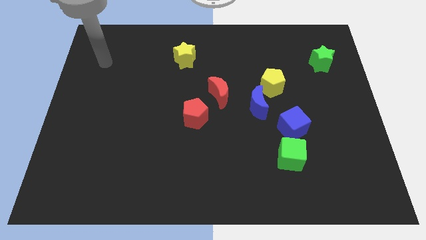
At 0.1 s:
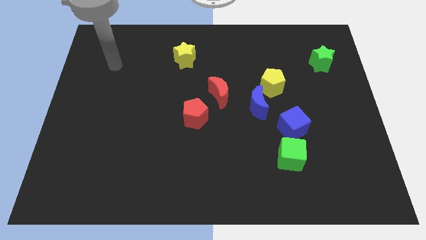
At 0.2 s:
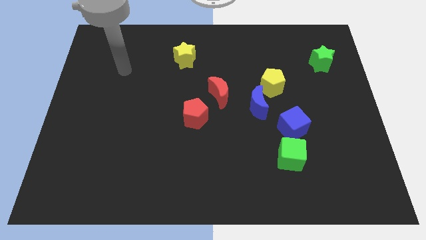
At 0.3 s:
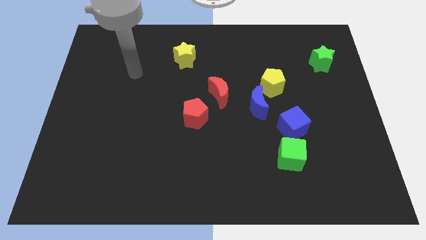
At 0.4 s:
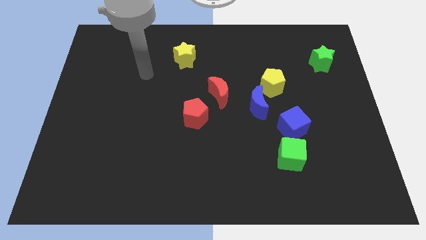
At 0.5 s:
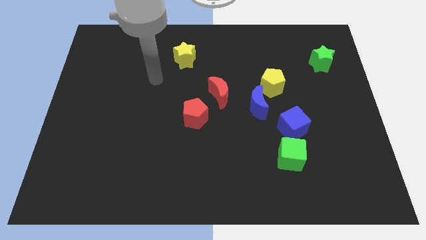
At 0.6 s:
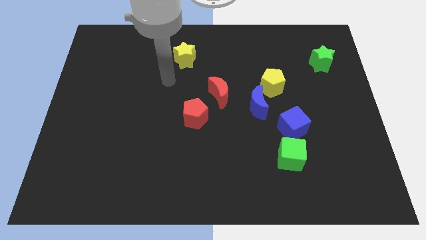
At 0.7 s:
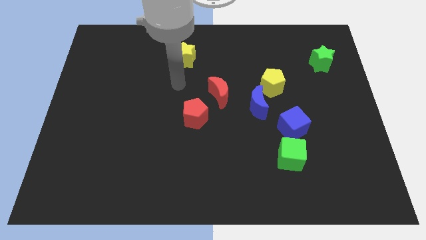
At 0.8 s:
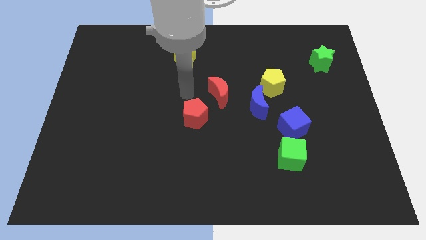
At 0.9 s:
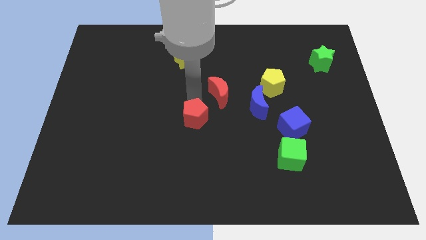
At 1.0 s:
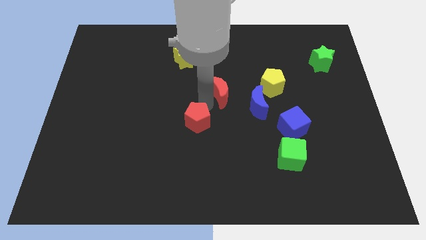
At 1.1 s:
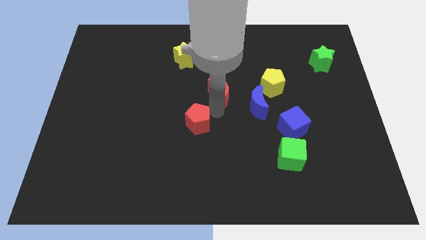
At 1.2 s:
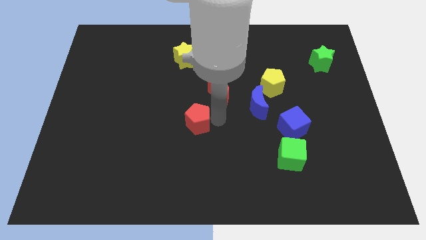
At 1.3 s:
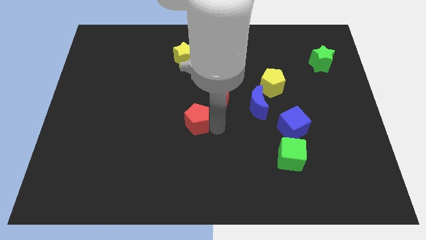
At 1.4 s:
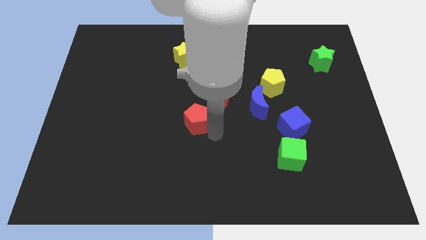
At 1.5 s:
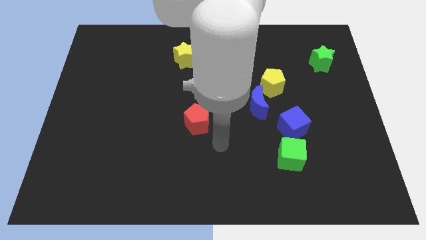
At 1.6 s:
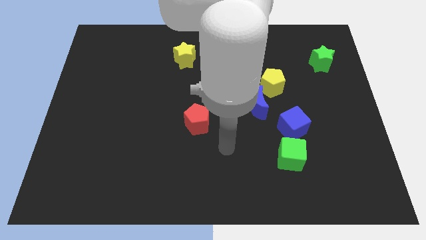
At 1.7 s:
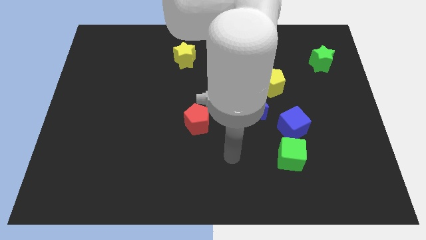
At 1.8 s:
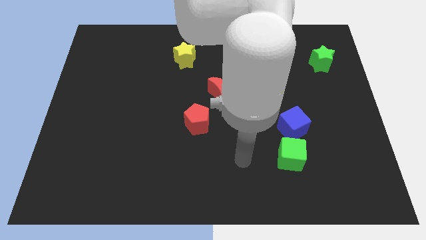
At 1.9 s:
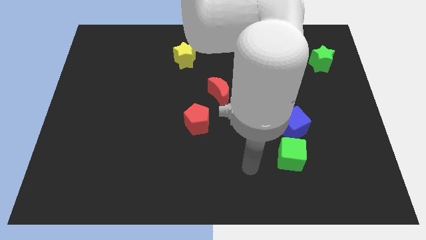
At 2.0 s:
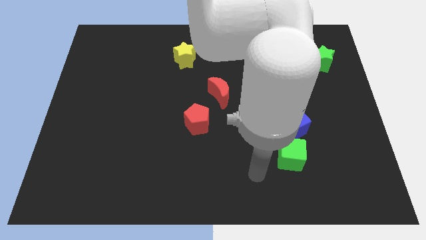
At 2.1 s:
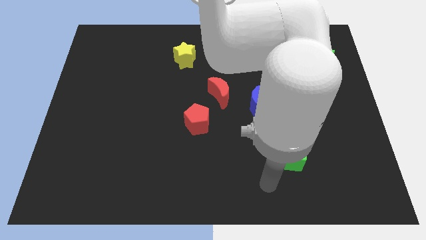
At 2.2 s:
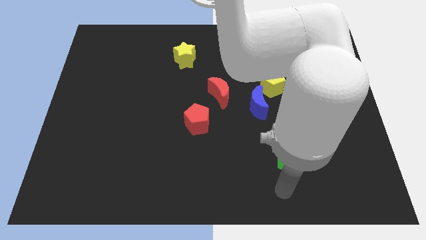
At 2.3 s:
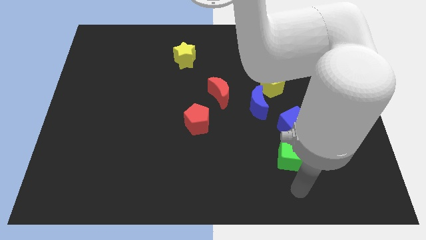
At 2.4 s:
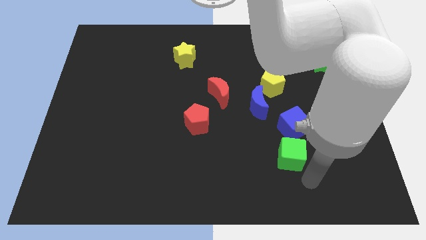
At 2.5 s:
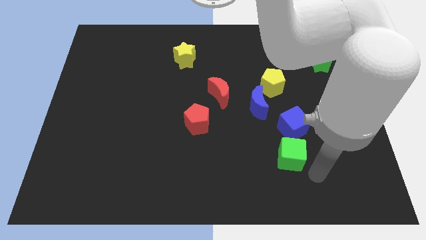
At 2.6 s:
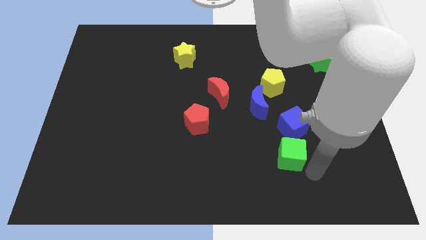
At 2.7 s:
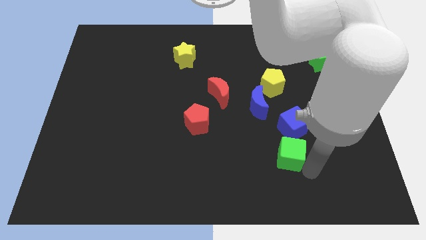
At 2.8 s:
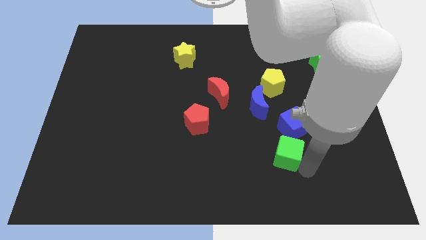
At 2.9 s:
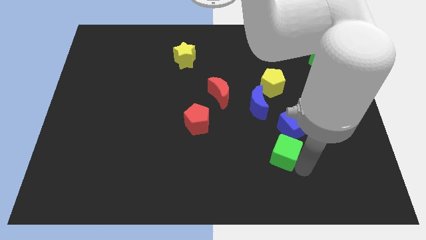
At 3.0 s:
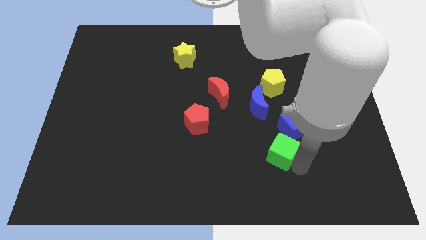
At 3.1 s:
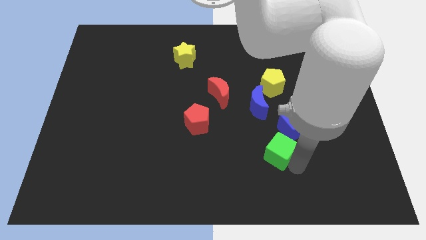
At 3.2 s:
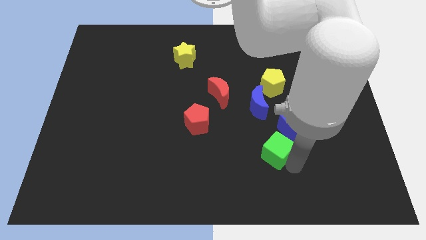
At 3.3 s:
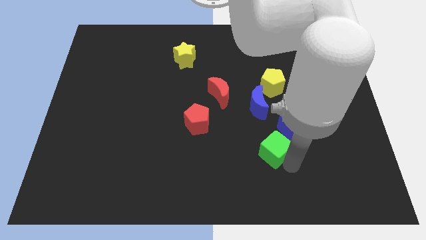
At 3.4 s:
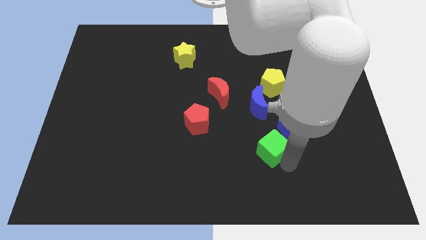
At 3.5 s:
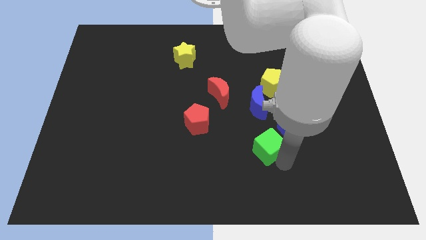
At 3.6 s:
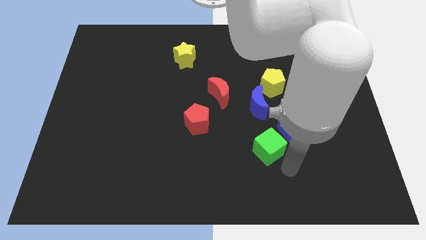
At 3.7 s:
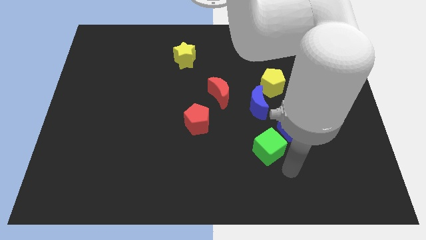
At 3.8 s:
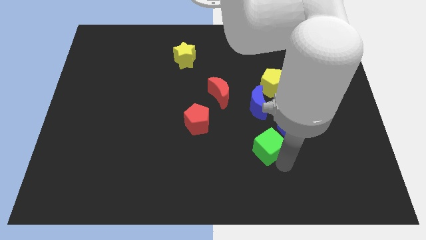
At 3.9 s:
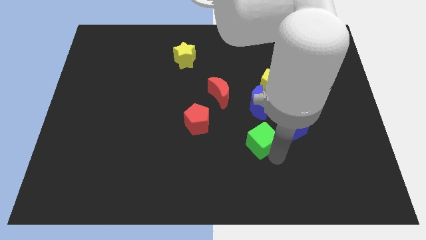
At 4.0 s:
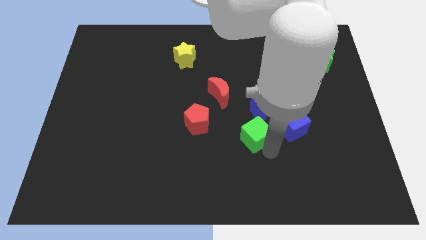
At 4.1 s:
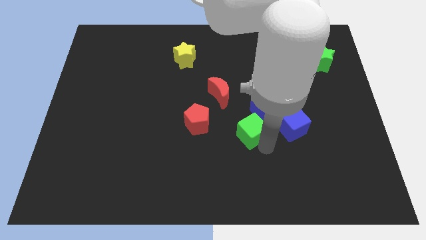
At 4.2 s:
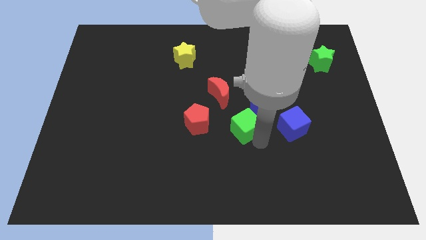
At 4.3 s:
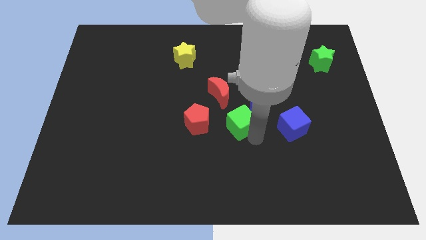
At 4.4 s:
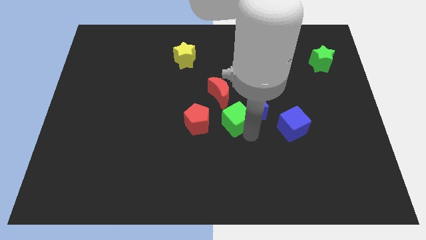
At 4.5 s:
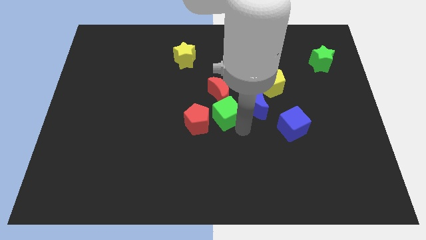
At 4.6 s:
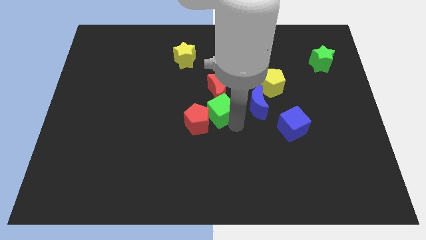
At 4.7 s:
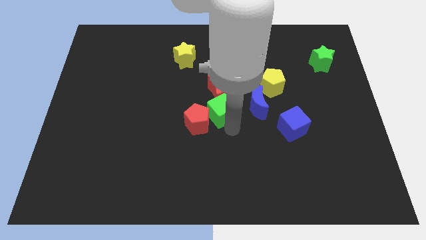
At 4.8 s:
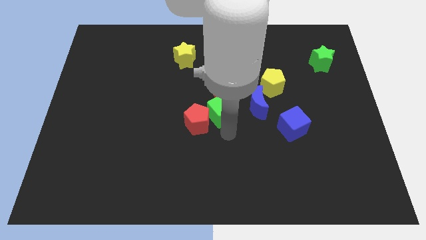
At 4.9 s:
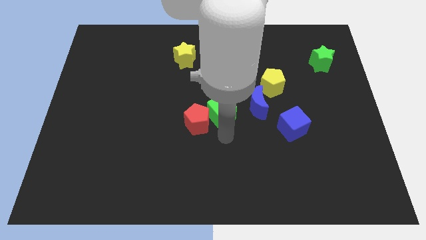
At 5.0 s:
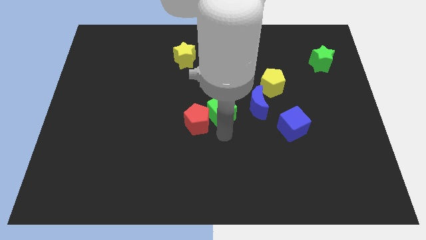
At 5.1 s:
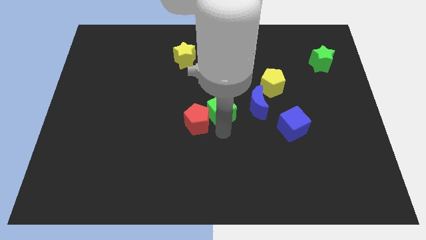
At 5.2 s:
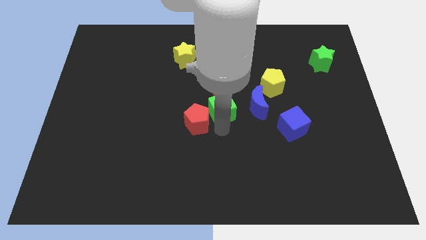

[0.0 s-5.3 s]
push the green cube towards the red moon

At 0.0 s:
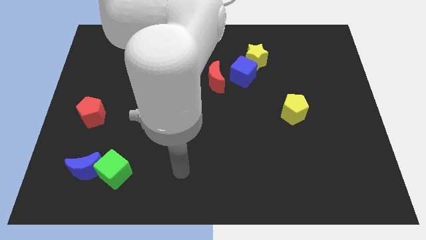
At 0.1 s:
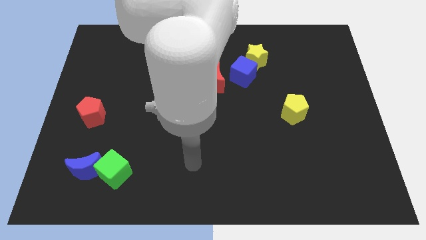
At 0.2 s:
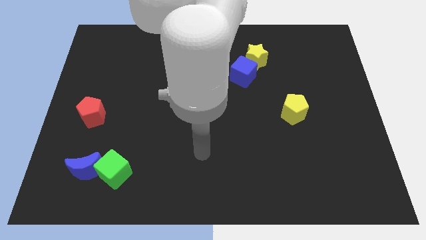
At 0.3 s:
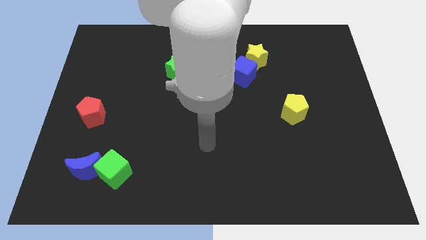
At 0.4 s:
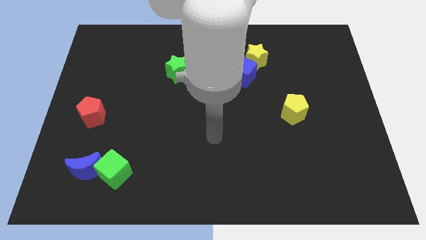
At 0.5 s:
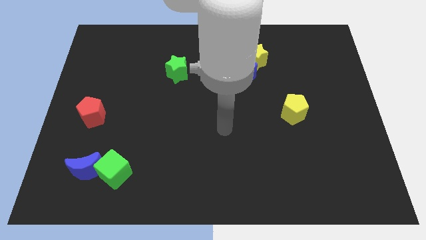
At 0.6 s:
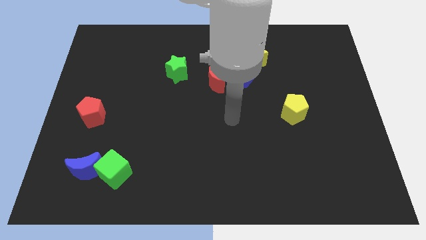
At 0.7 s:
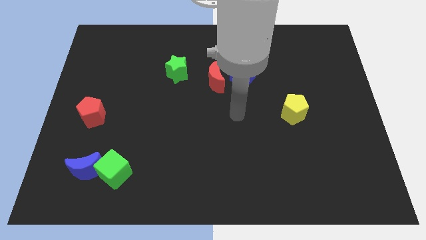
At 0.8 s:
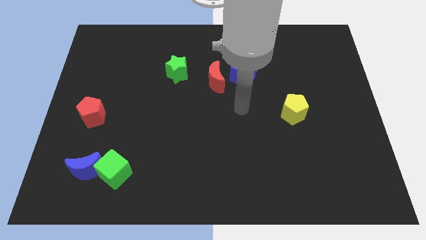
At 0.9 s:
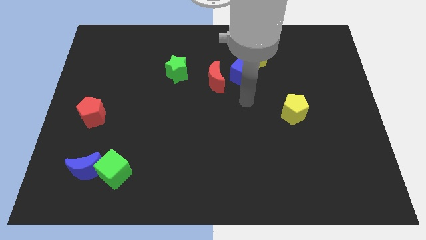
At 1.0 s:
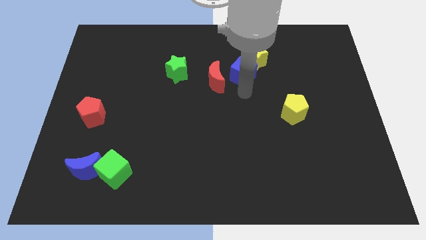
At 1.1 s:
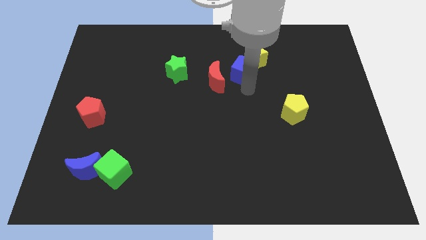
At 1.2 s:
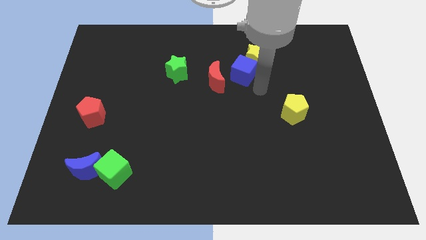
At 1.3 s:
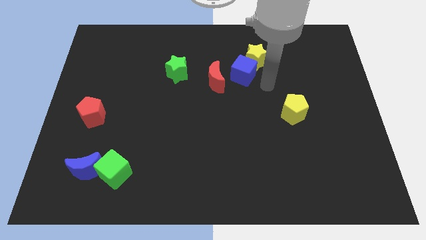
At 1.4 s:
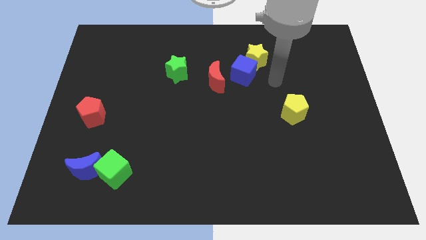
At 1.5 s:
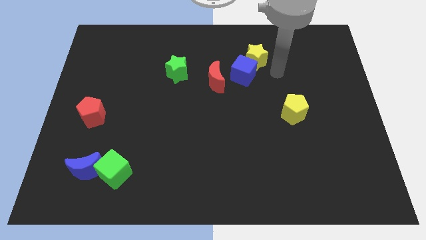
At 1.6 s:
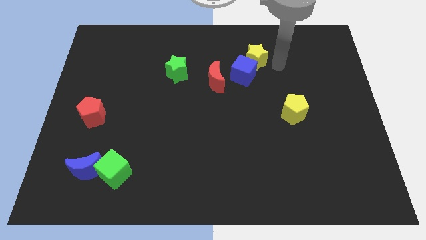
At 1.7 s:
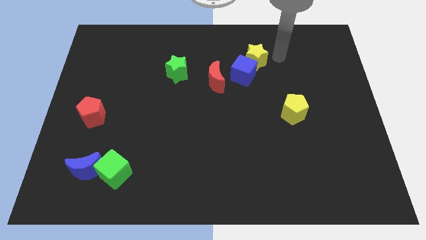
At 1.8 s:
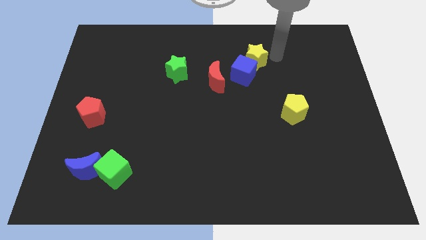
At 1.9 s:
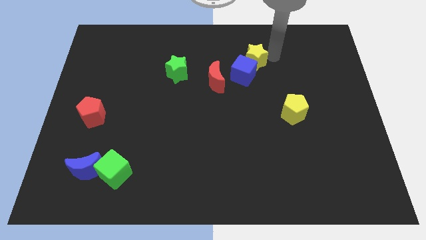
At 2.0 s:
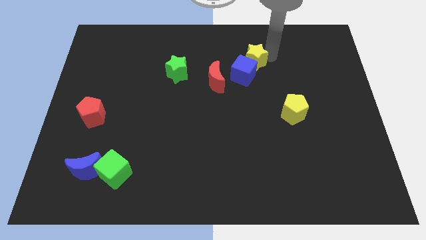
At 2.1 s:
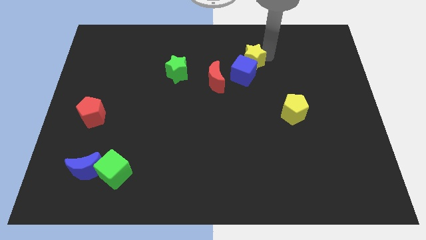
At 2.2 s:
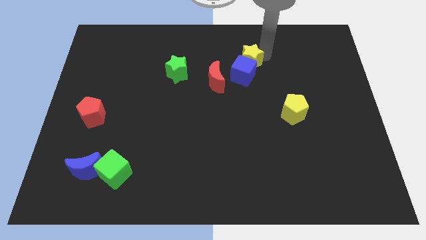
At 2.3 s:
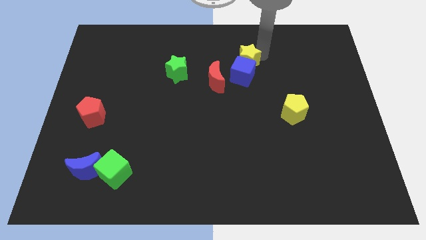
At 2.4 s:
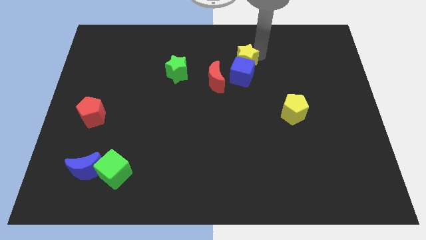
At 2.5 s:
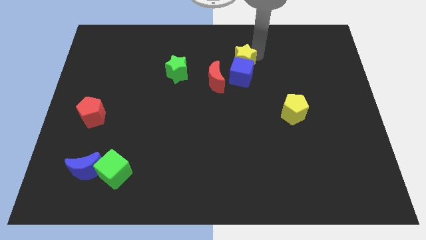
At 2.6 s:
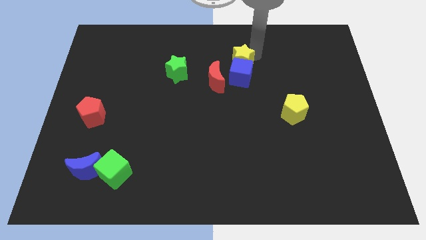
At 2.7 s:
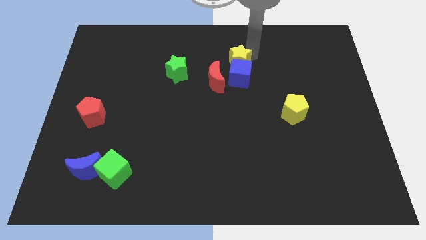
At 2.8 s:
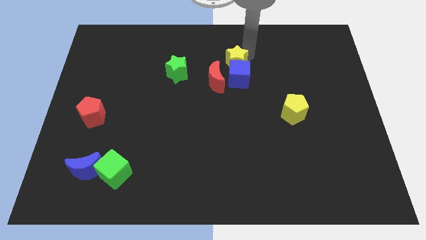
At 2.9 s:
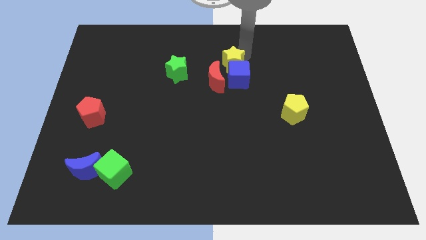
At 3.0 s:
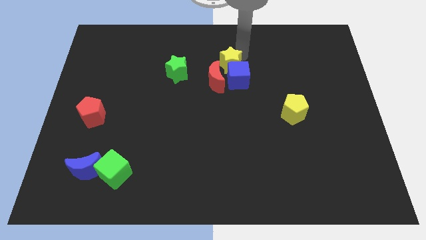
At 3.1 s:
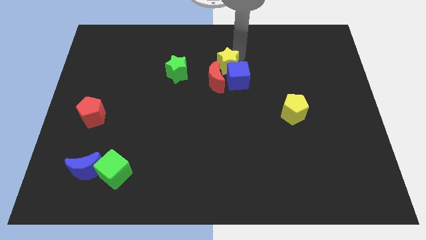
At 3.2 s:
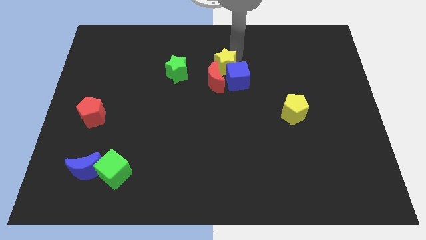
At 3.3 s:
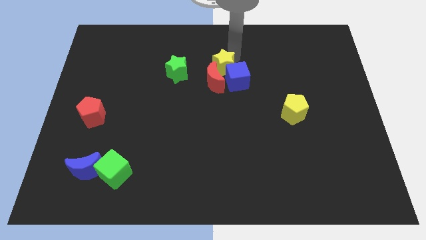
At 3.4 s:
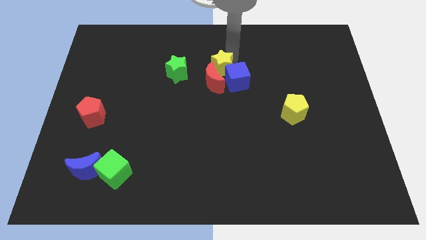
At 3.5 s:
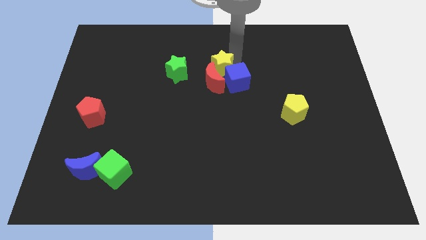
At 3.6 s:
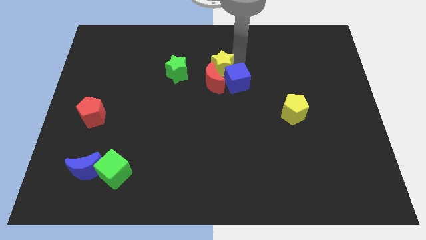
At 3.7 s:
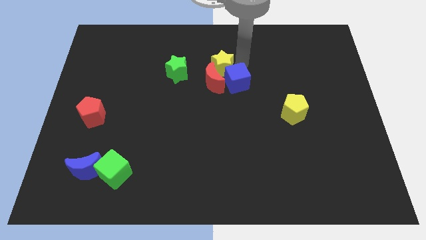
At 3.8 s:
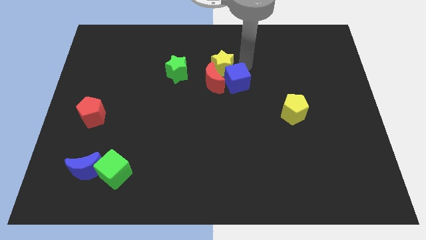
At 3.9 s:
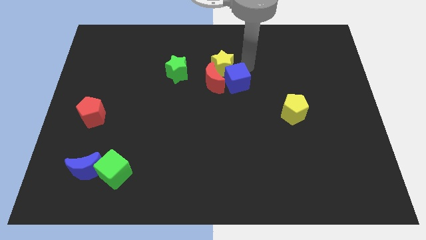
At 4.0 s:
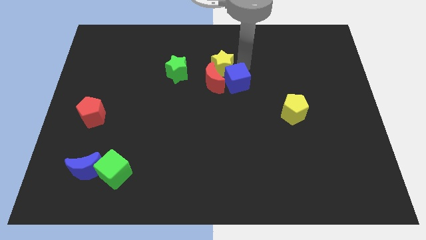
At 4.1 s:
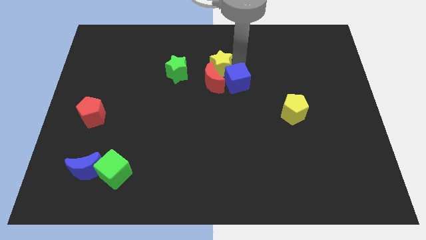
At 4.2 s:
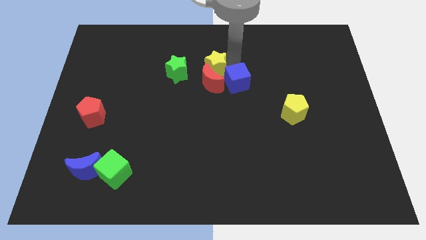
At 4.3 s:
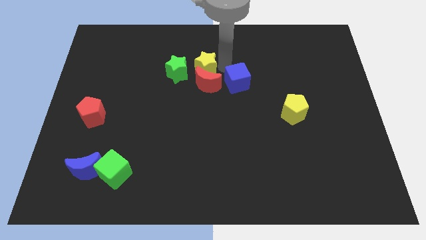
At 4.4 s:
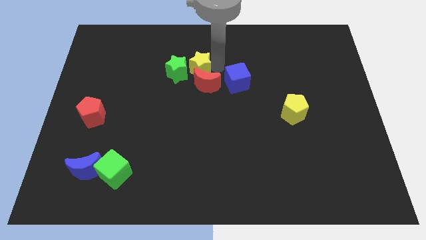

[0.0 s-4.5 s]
put the yellow star to the green star
